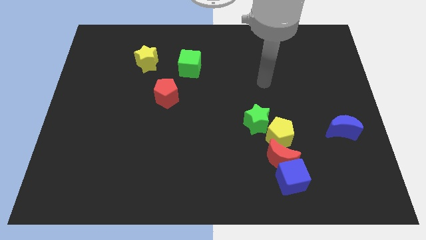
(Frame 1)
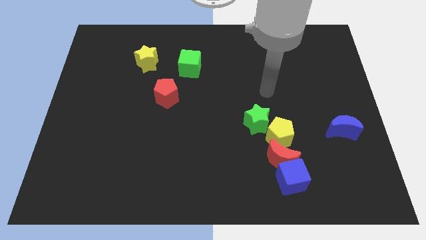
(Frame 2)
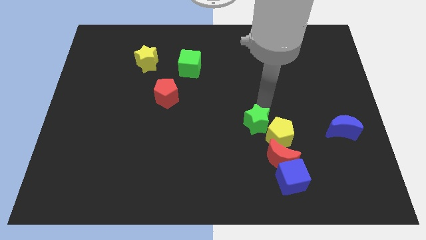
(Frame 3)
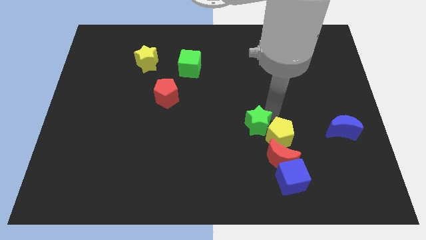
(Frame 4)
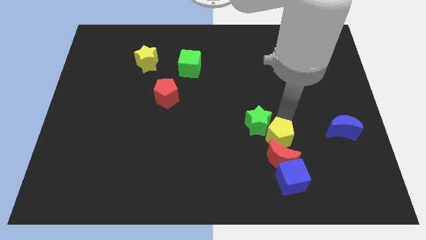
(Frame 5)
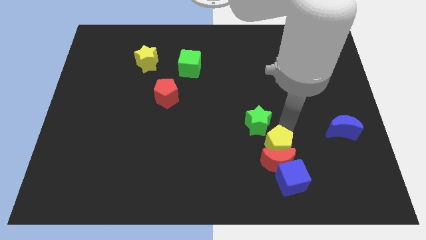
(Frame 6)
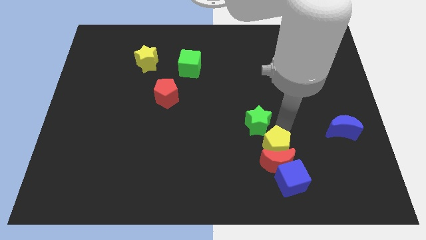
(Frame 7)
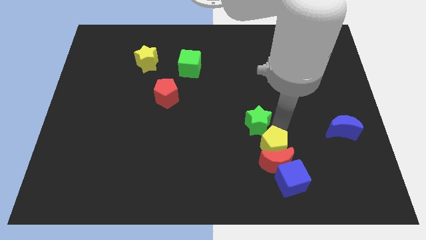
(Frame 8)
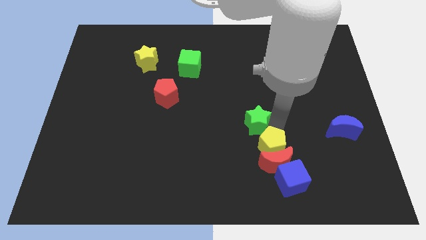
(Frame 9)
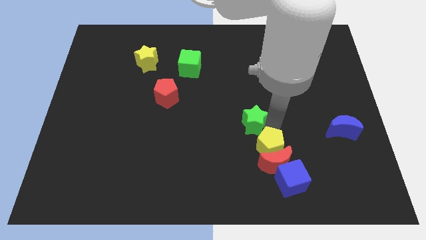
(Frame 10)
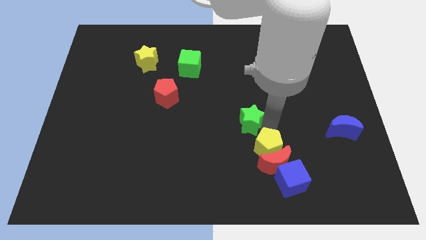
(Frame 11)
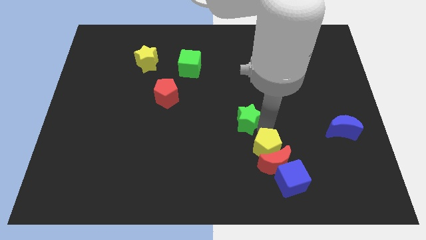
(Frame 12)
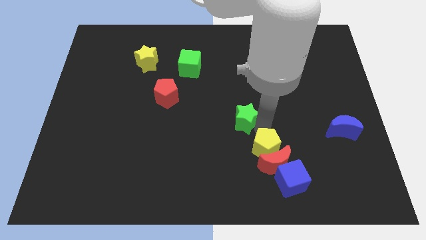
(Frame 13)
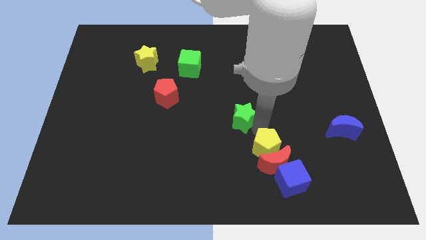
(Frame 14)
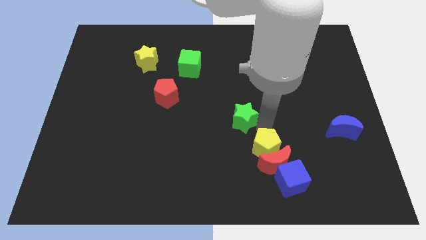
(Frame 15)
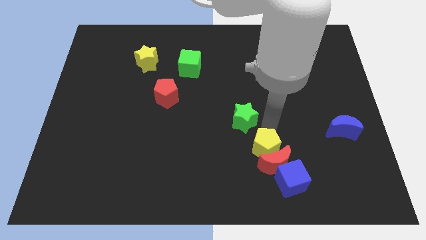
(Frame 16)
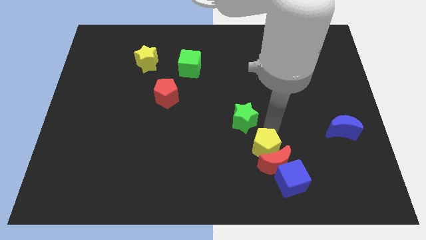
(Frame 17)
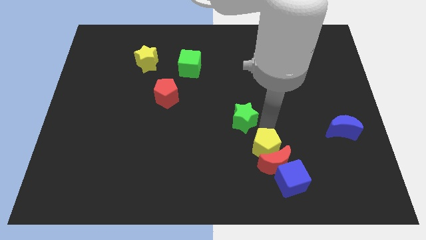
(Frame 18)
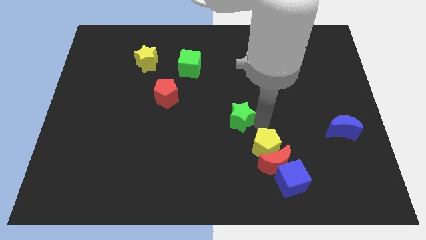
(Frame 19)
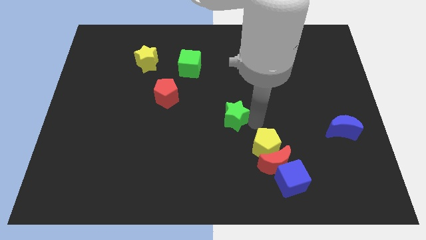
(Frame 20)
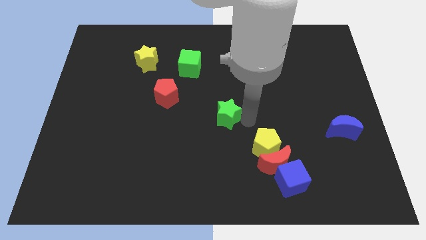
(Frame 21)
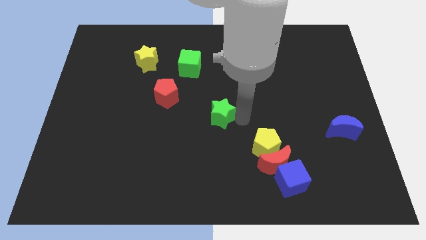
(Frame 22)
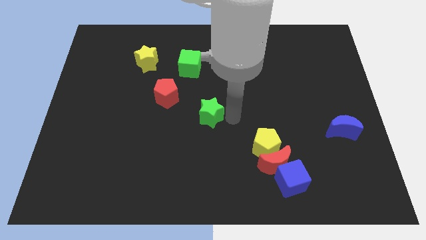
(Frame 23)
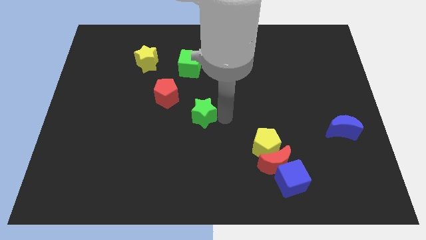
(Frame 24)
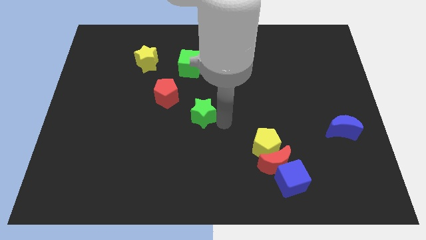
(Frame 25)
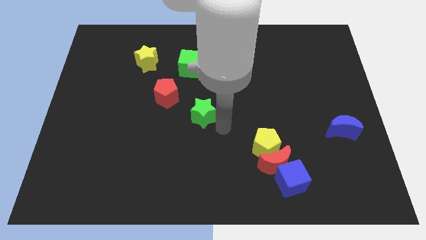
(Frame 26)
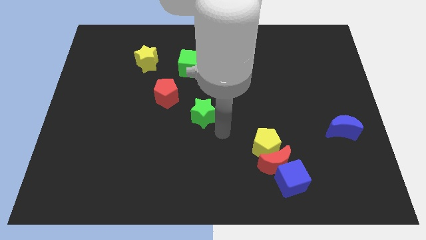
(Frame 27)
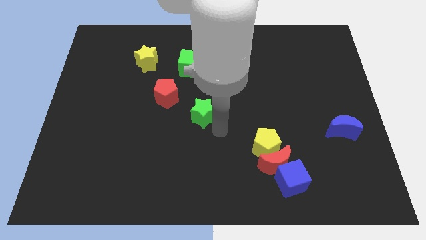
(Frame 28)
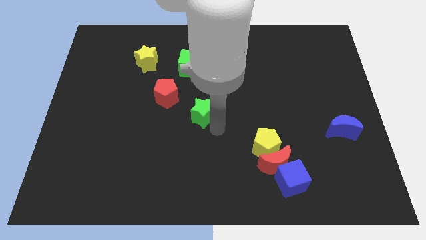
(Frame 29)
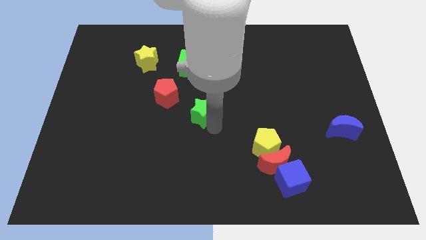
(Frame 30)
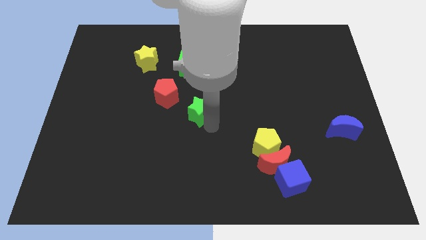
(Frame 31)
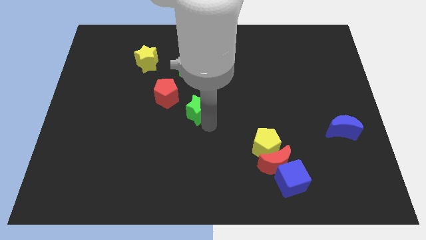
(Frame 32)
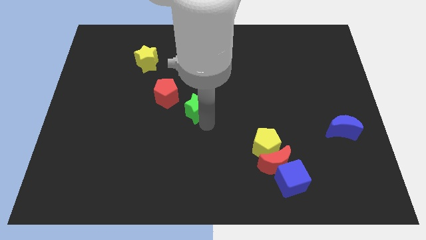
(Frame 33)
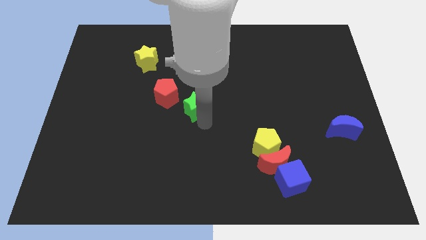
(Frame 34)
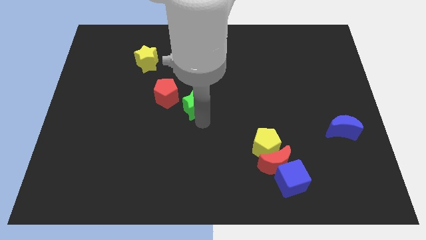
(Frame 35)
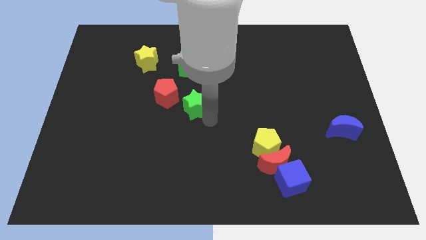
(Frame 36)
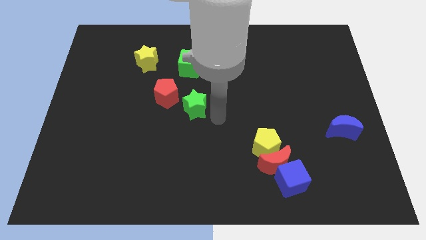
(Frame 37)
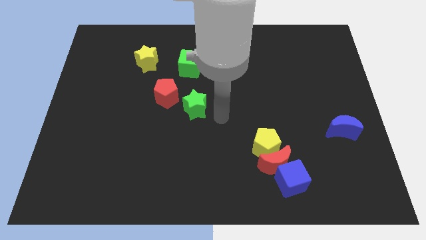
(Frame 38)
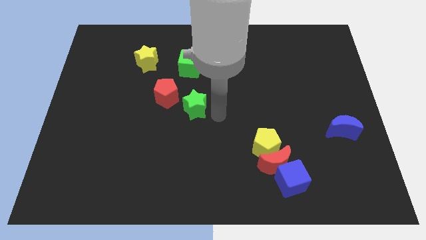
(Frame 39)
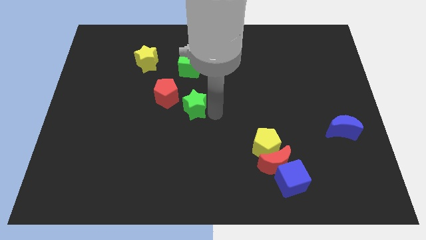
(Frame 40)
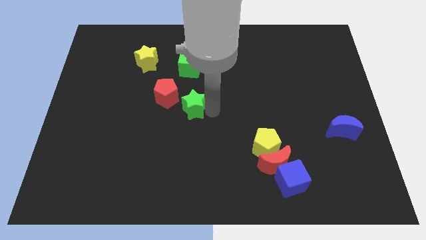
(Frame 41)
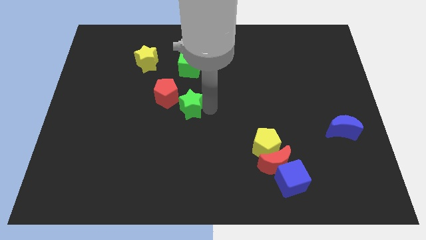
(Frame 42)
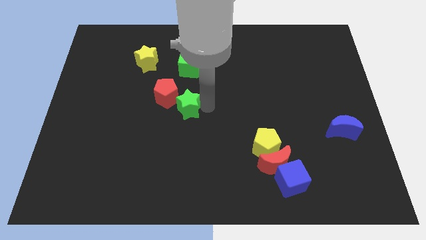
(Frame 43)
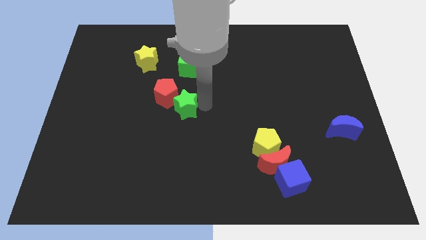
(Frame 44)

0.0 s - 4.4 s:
slide the green star towards the red pentagon

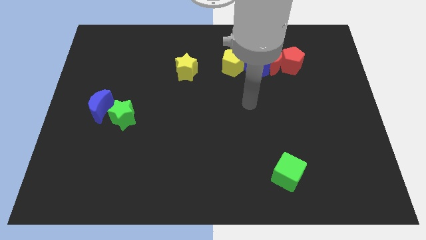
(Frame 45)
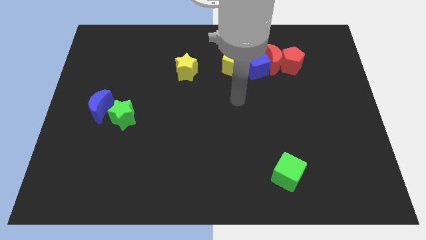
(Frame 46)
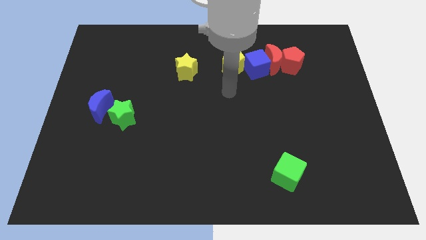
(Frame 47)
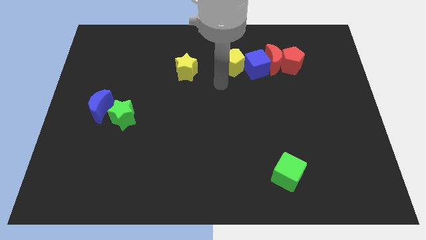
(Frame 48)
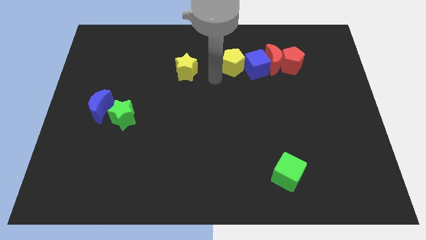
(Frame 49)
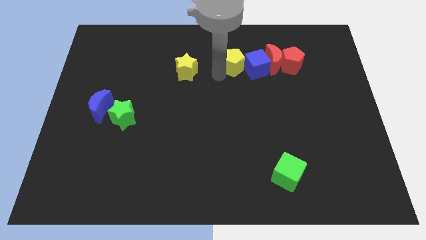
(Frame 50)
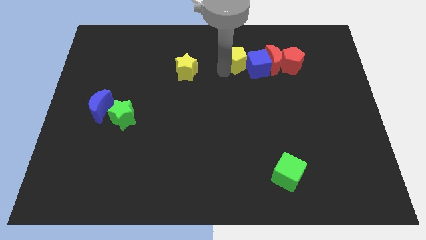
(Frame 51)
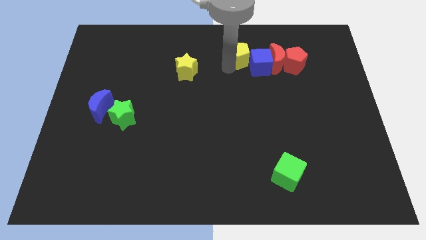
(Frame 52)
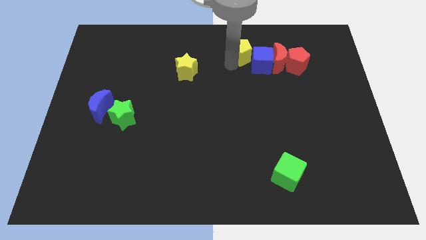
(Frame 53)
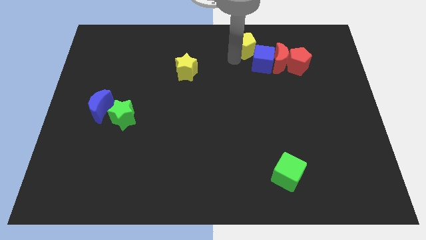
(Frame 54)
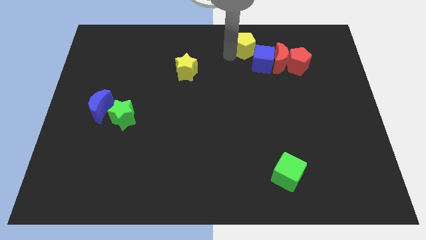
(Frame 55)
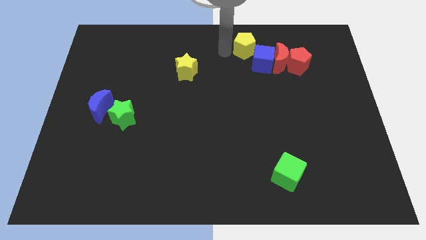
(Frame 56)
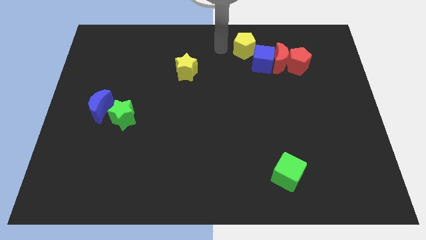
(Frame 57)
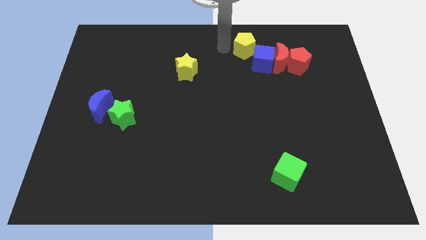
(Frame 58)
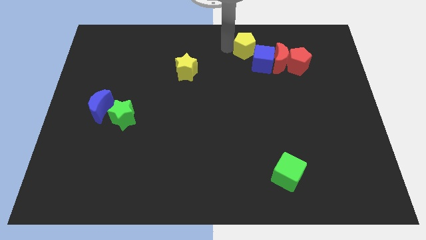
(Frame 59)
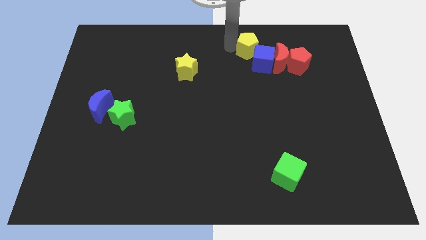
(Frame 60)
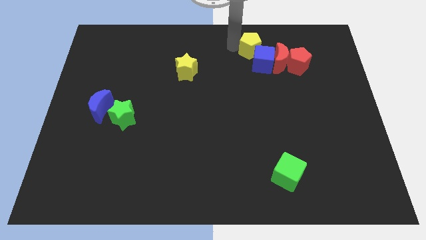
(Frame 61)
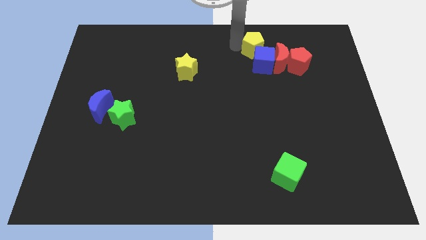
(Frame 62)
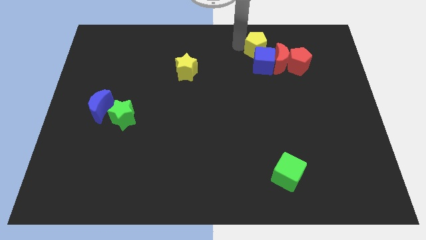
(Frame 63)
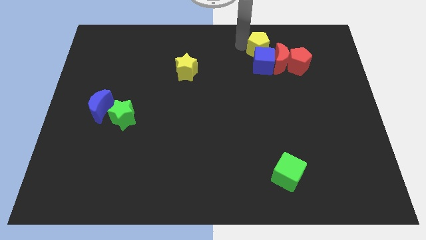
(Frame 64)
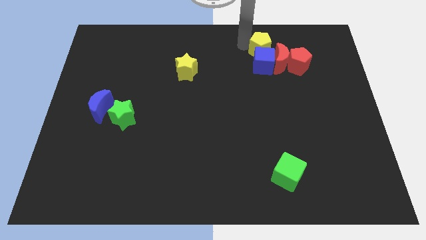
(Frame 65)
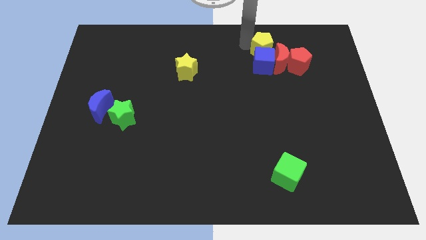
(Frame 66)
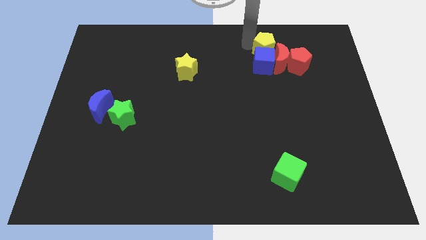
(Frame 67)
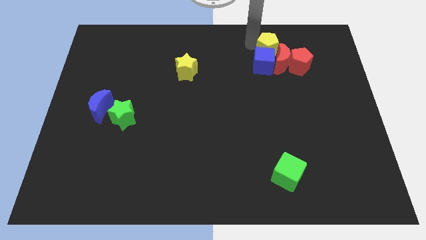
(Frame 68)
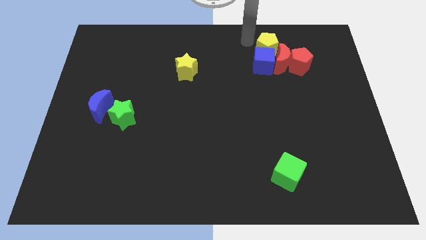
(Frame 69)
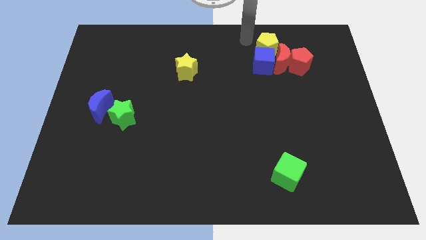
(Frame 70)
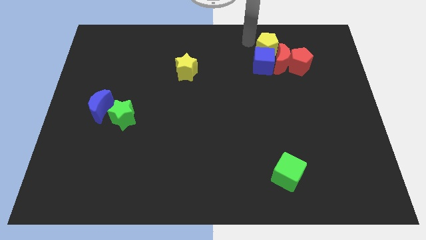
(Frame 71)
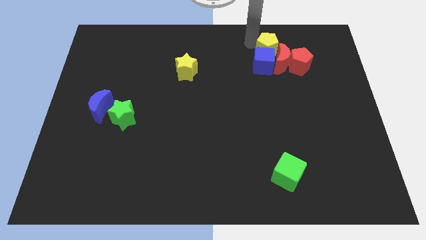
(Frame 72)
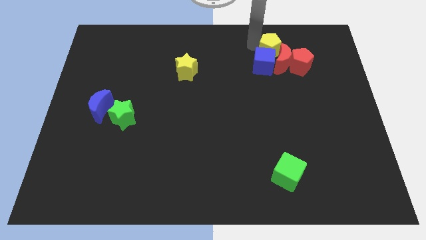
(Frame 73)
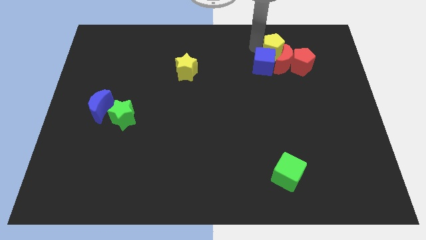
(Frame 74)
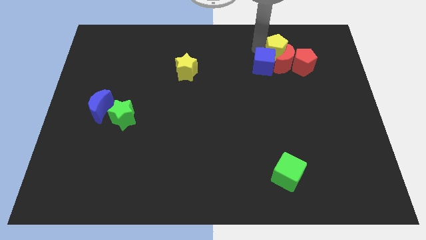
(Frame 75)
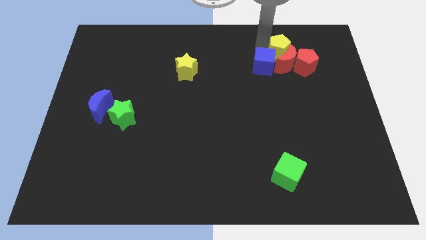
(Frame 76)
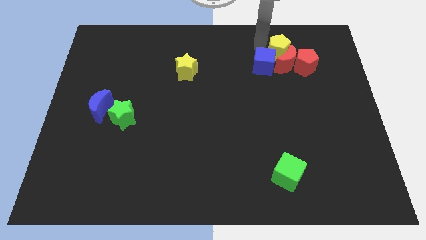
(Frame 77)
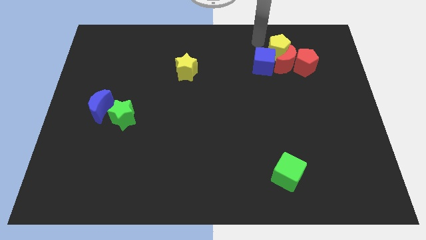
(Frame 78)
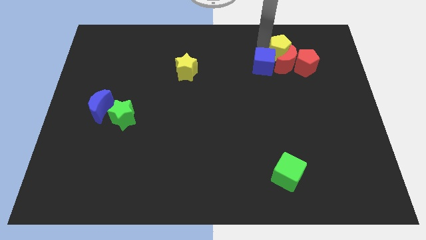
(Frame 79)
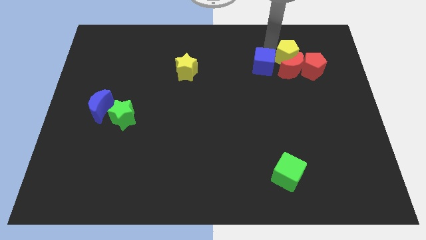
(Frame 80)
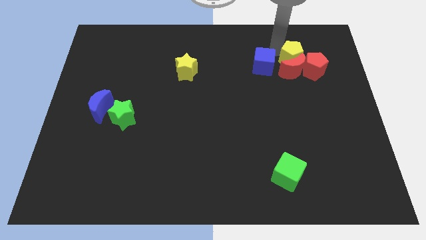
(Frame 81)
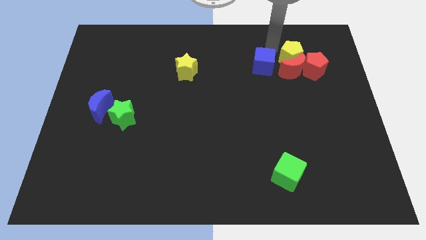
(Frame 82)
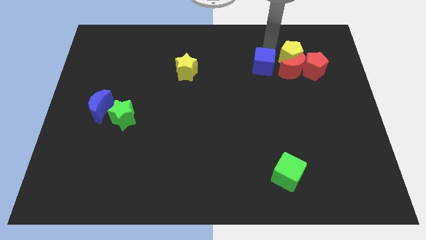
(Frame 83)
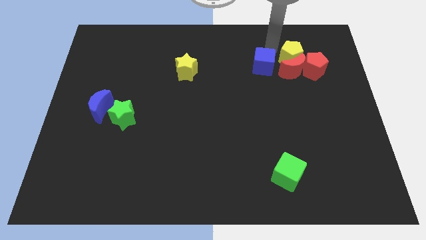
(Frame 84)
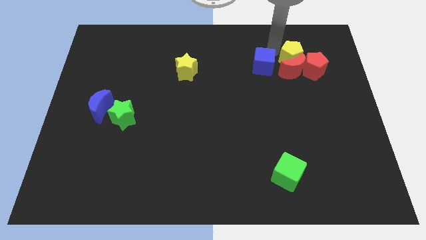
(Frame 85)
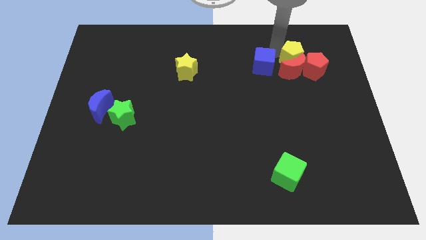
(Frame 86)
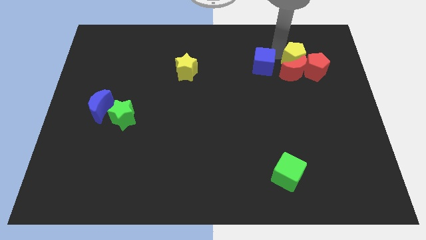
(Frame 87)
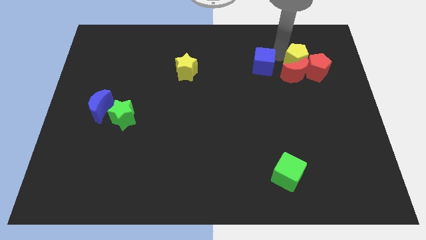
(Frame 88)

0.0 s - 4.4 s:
slide the yellow pentagon towards the red pentagon
